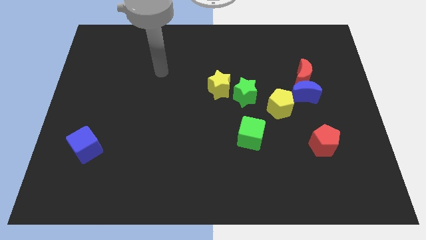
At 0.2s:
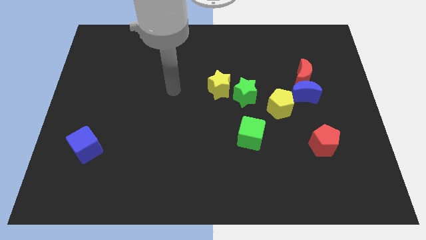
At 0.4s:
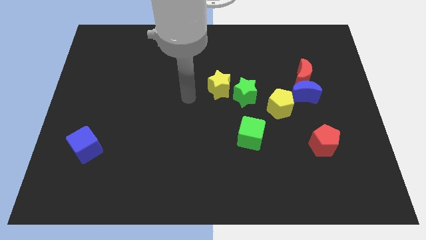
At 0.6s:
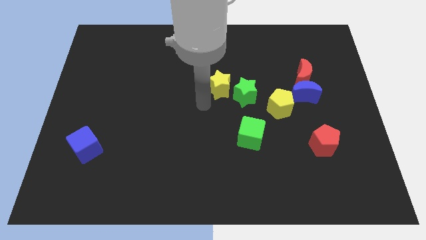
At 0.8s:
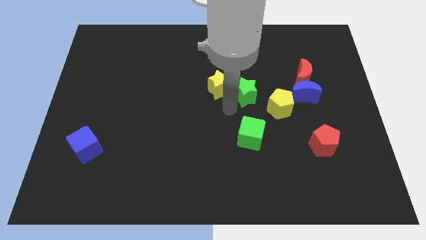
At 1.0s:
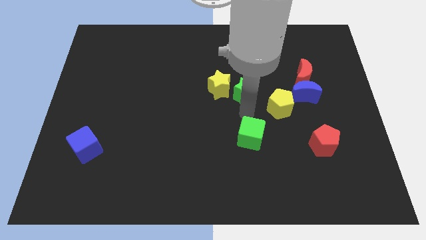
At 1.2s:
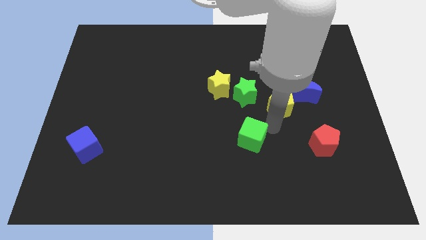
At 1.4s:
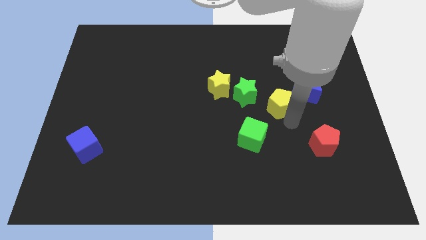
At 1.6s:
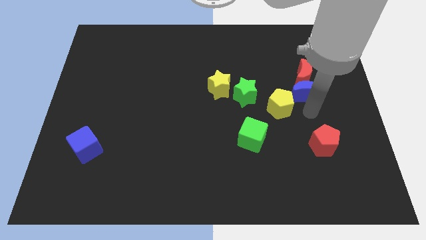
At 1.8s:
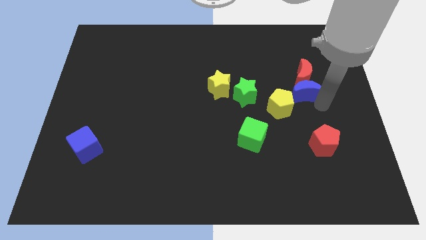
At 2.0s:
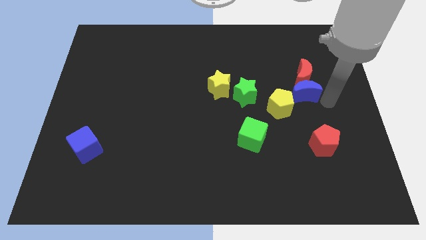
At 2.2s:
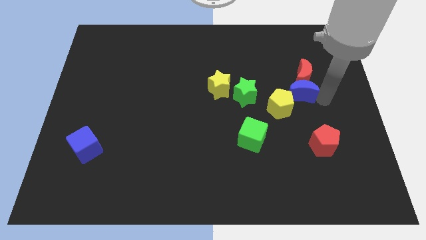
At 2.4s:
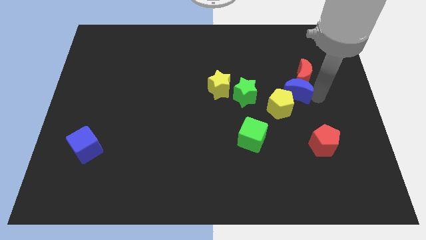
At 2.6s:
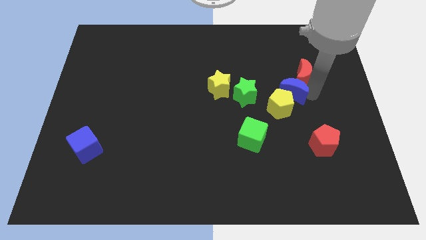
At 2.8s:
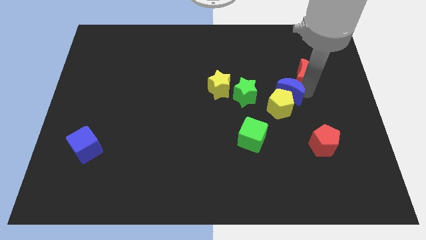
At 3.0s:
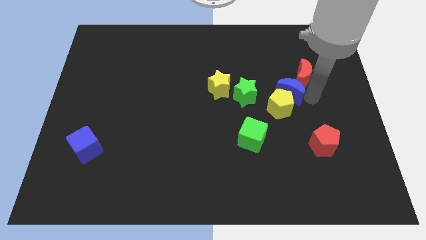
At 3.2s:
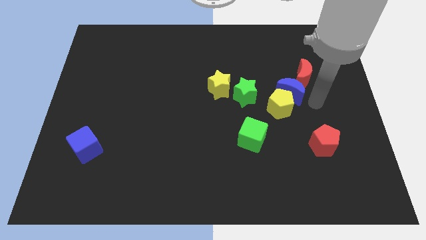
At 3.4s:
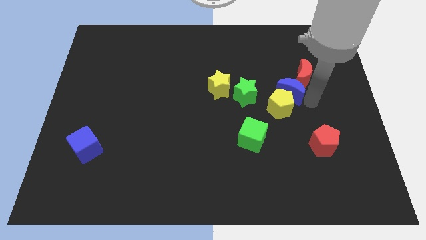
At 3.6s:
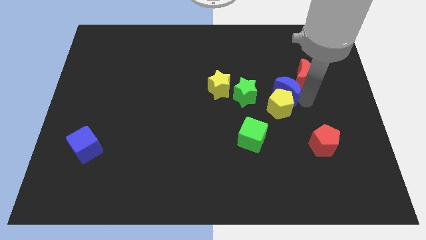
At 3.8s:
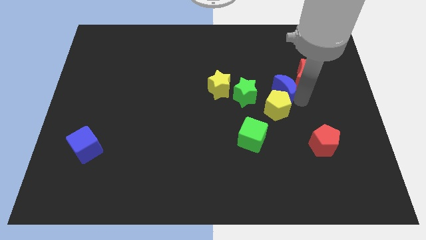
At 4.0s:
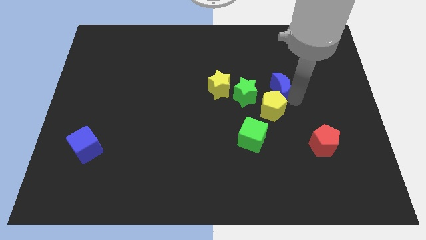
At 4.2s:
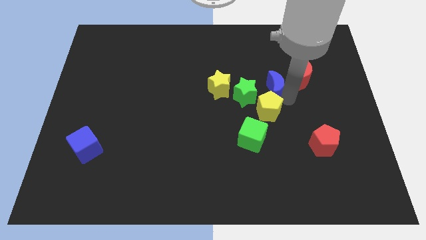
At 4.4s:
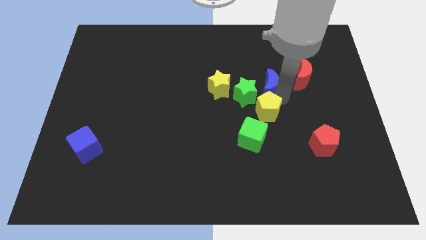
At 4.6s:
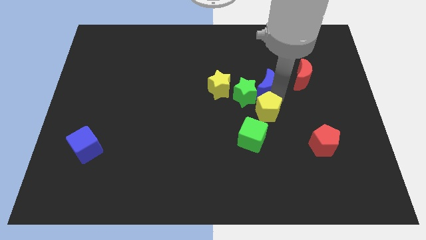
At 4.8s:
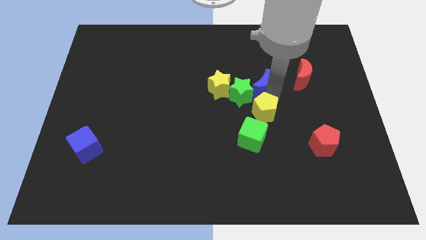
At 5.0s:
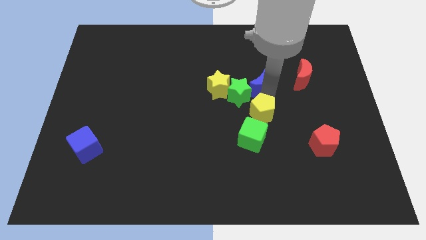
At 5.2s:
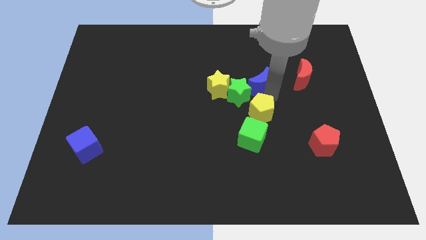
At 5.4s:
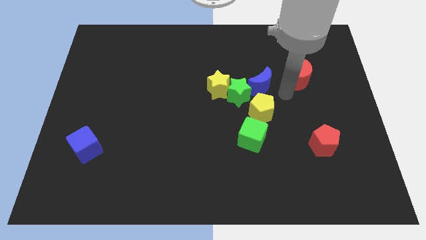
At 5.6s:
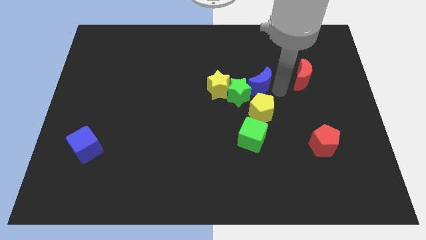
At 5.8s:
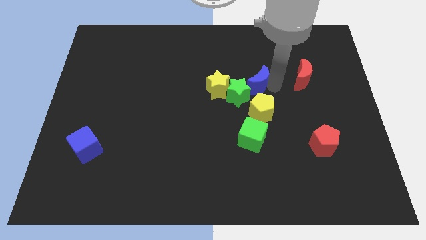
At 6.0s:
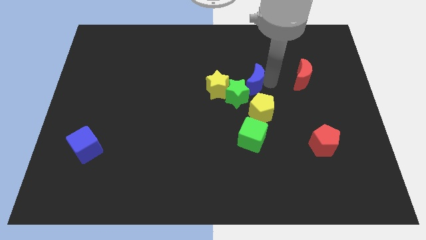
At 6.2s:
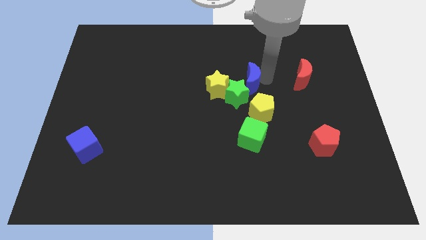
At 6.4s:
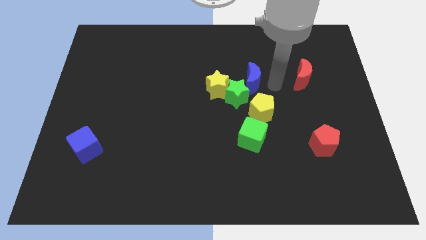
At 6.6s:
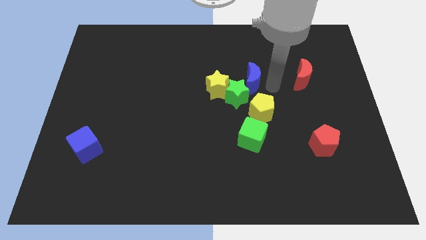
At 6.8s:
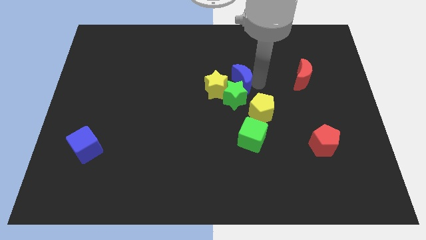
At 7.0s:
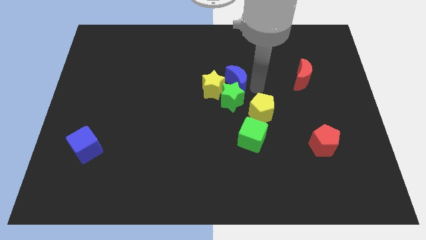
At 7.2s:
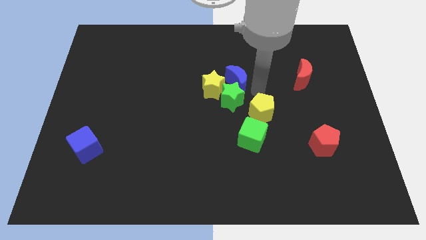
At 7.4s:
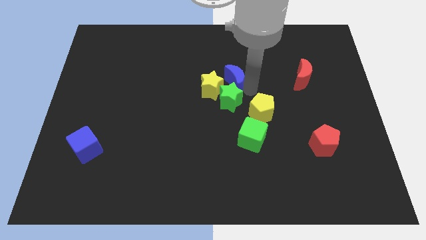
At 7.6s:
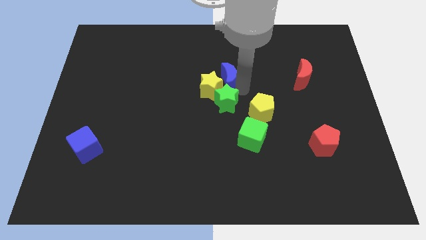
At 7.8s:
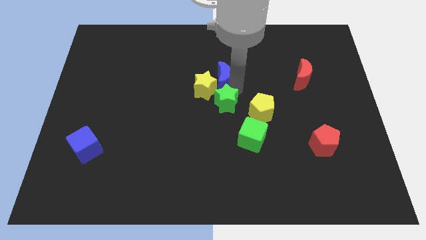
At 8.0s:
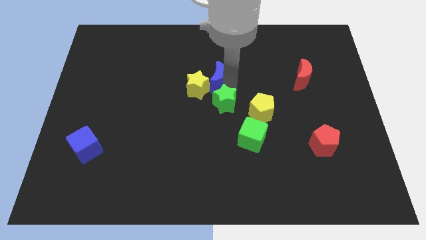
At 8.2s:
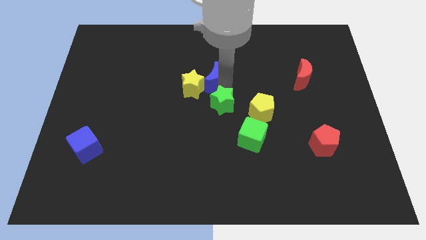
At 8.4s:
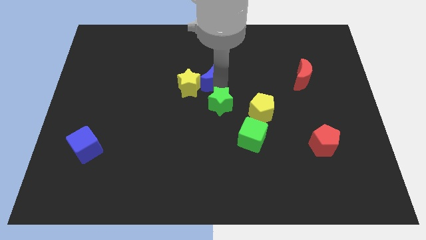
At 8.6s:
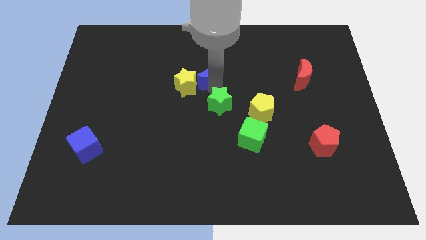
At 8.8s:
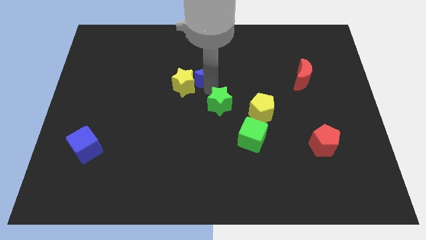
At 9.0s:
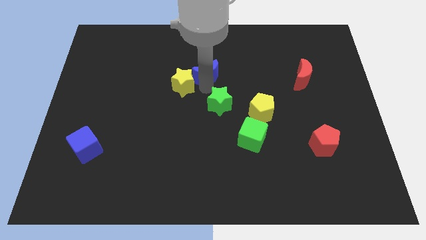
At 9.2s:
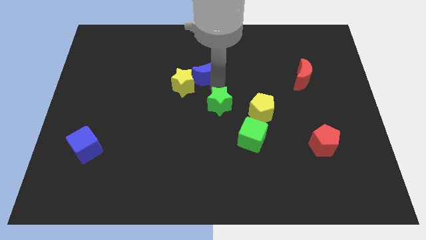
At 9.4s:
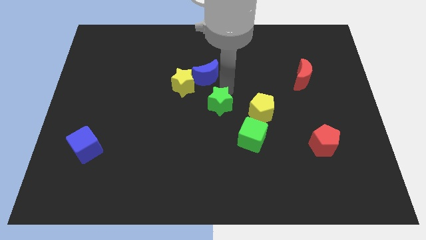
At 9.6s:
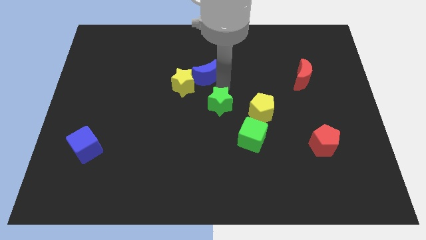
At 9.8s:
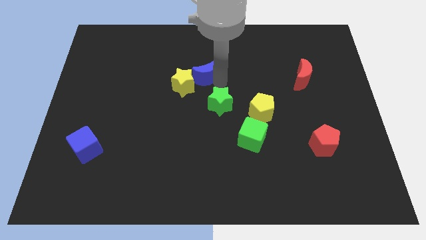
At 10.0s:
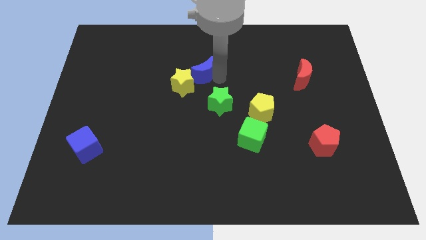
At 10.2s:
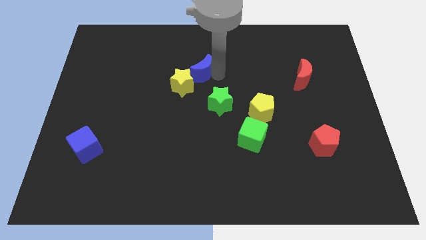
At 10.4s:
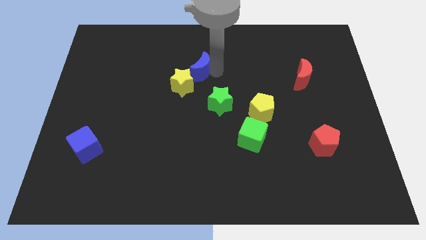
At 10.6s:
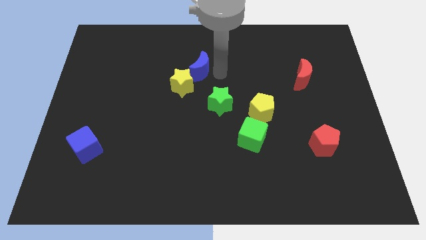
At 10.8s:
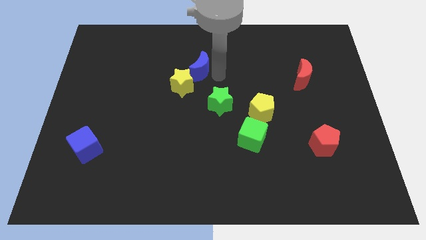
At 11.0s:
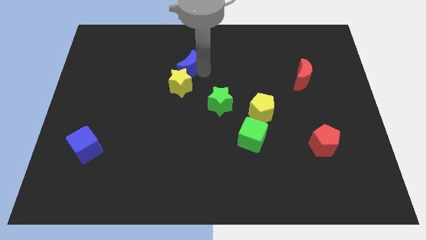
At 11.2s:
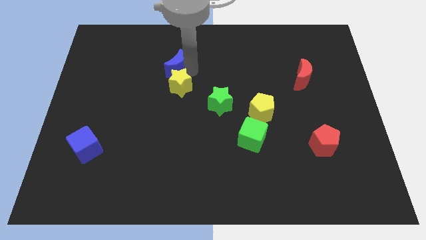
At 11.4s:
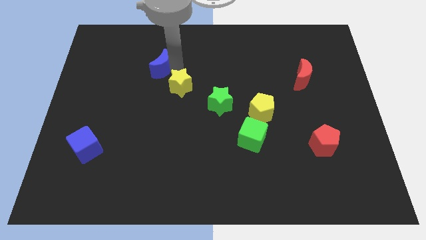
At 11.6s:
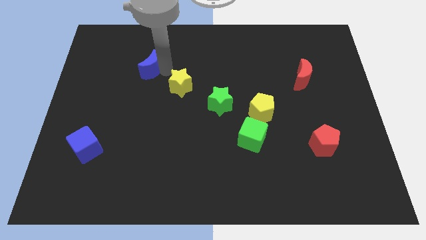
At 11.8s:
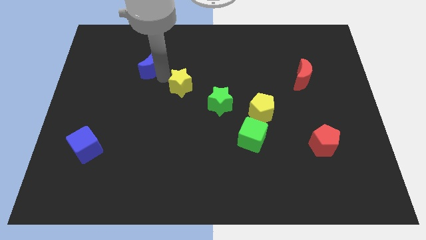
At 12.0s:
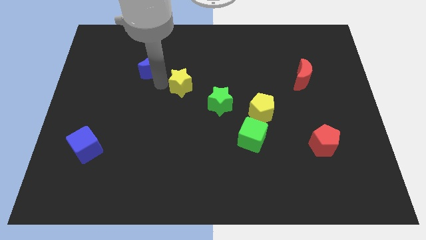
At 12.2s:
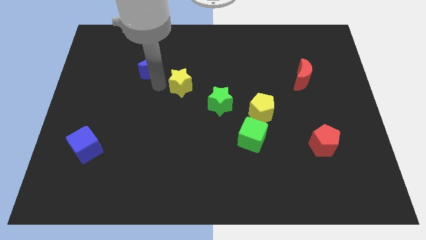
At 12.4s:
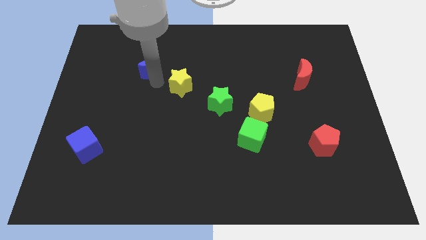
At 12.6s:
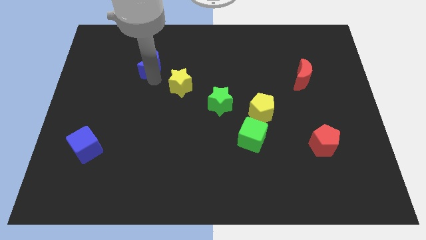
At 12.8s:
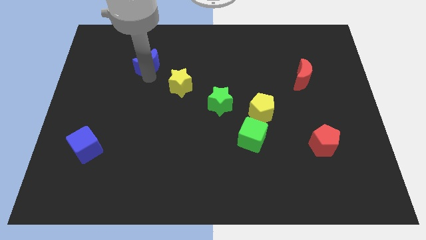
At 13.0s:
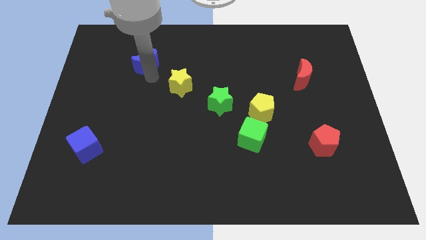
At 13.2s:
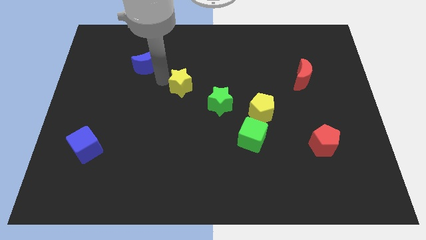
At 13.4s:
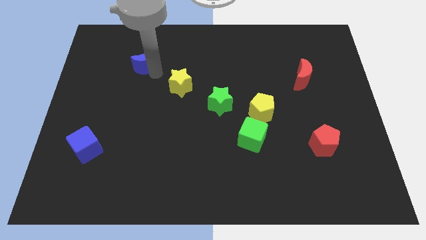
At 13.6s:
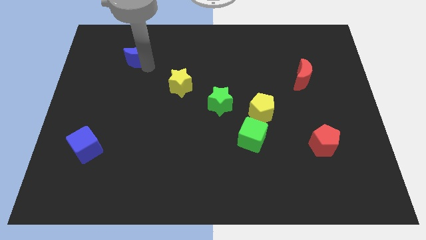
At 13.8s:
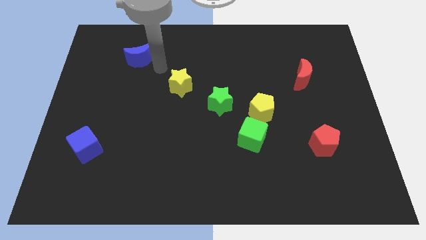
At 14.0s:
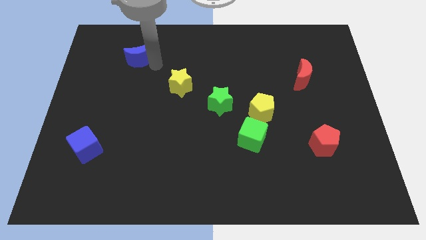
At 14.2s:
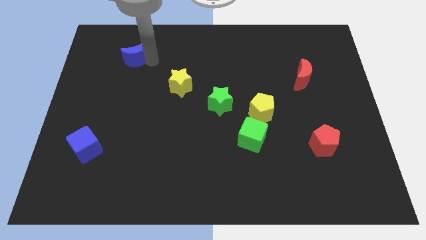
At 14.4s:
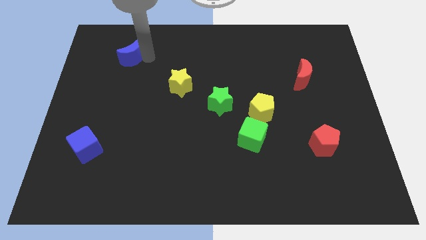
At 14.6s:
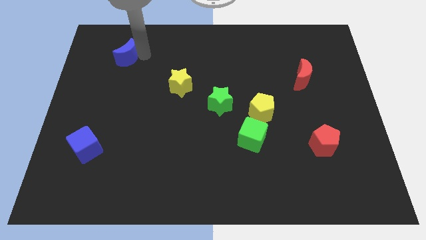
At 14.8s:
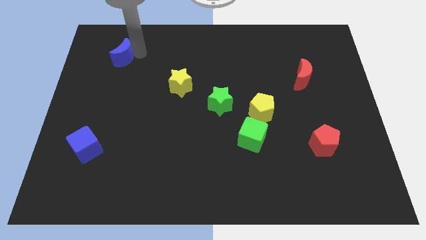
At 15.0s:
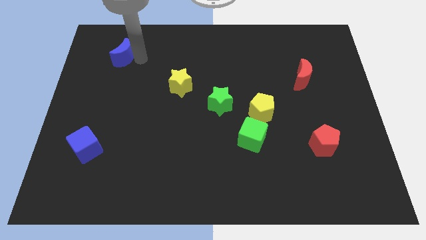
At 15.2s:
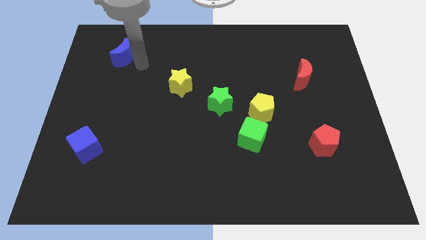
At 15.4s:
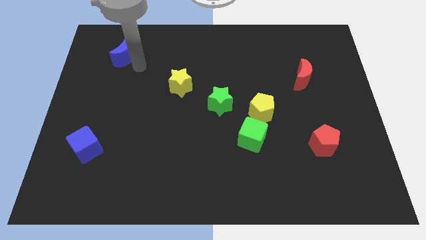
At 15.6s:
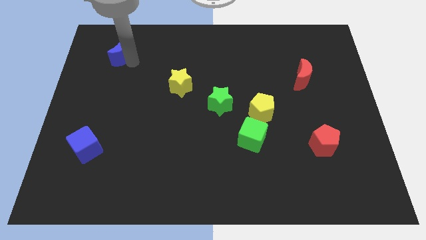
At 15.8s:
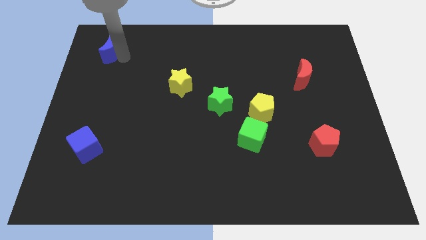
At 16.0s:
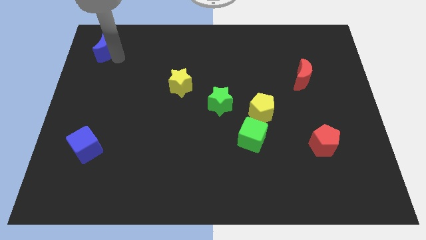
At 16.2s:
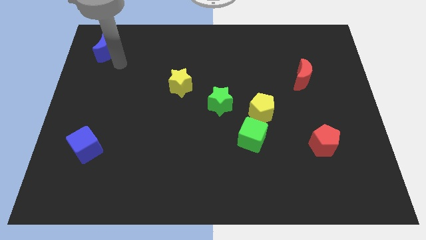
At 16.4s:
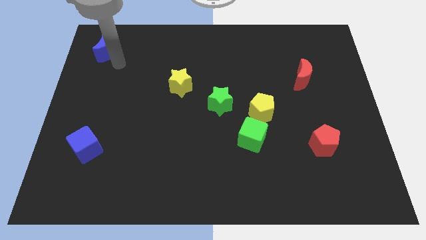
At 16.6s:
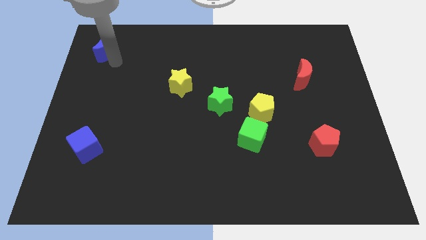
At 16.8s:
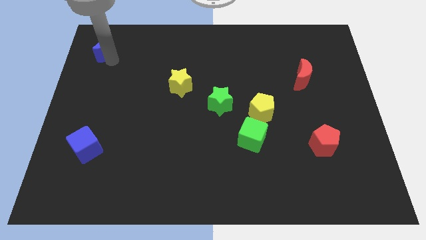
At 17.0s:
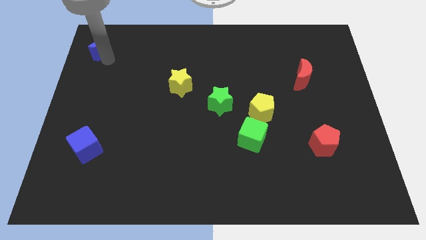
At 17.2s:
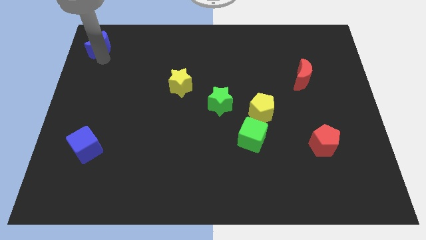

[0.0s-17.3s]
slide the blue moon to the top left corner
